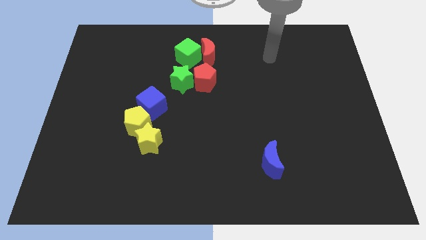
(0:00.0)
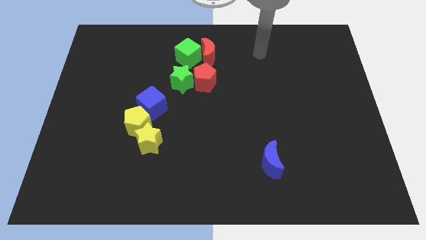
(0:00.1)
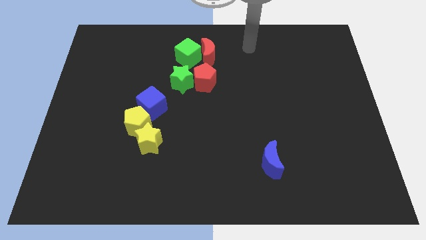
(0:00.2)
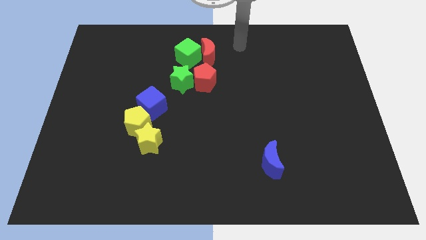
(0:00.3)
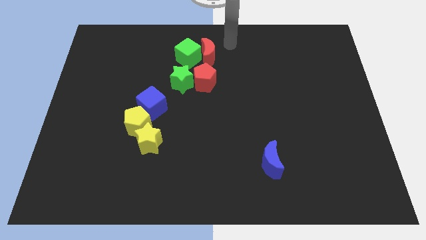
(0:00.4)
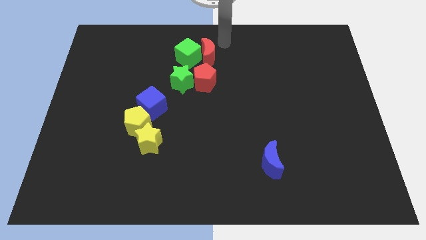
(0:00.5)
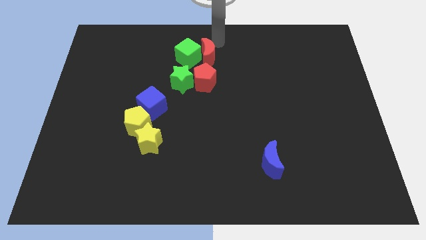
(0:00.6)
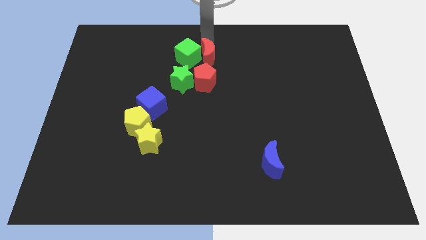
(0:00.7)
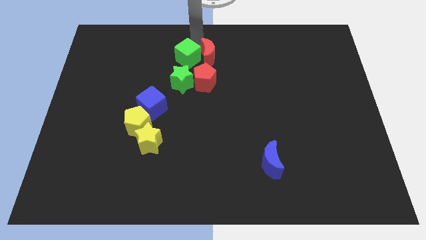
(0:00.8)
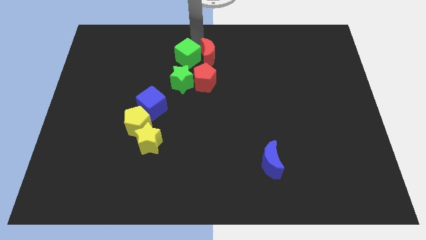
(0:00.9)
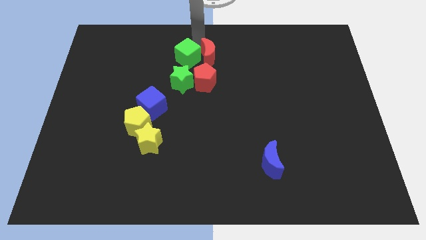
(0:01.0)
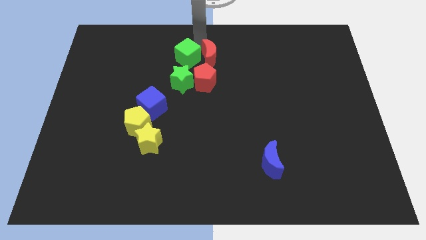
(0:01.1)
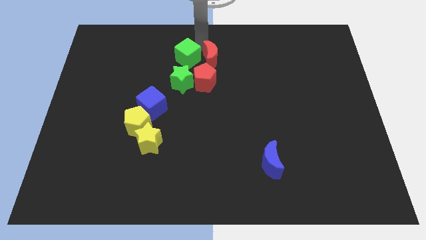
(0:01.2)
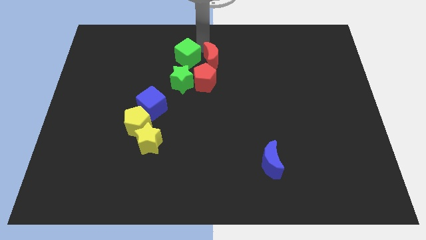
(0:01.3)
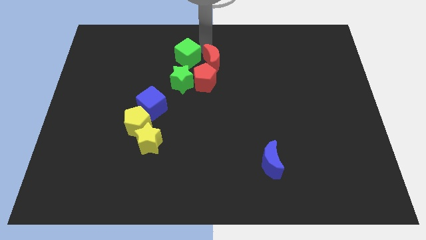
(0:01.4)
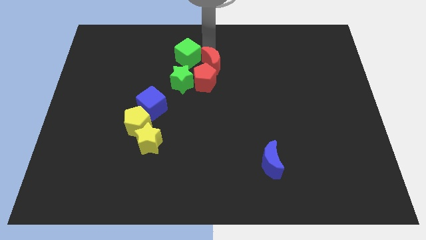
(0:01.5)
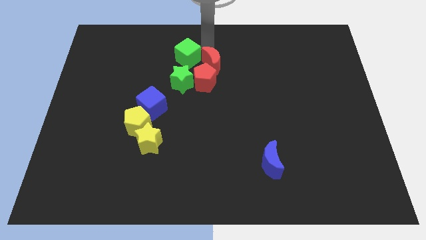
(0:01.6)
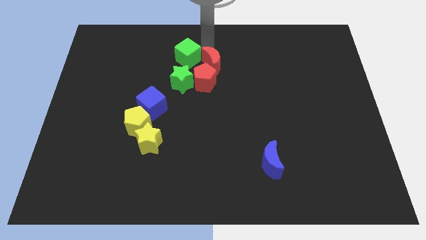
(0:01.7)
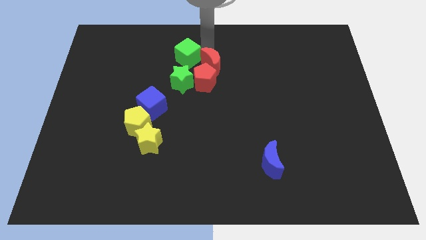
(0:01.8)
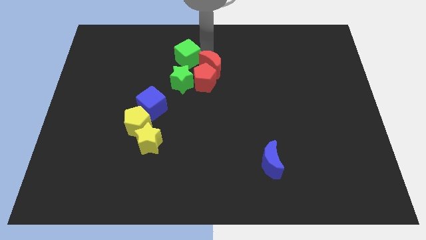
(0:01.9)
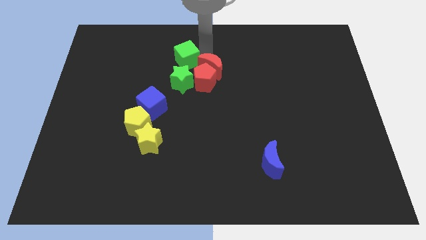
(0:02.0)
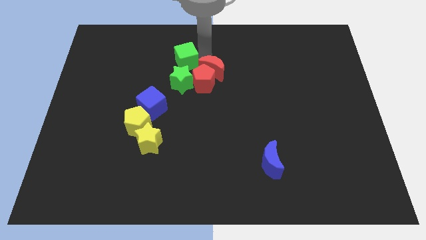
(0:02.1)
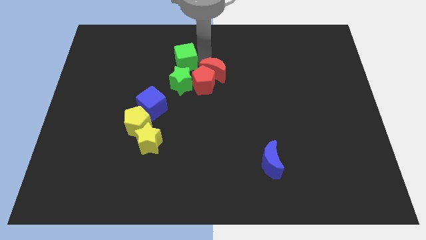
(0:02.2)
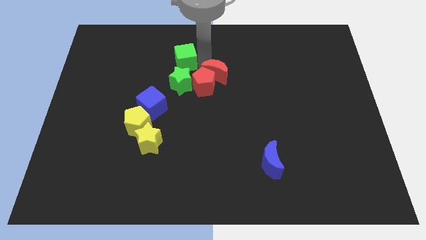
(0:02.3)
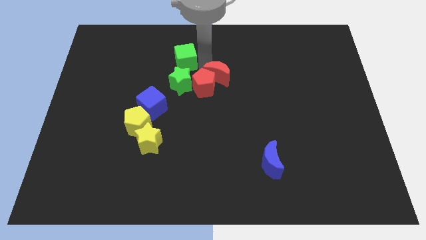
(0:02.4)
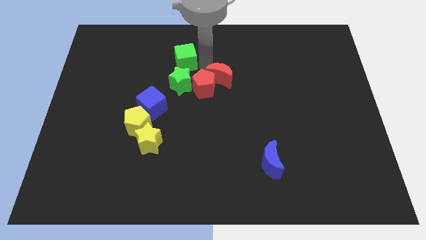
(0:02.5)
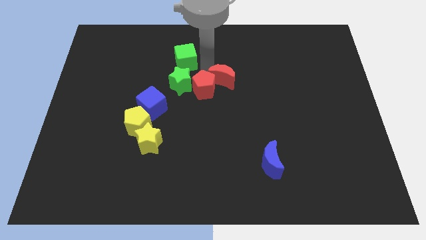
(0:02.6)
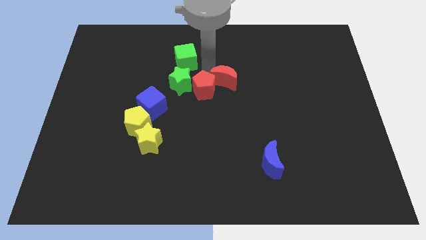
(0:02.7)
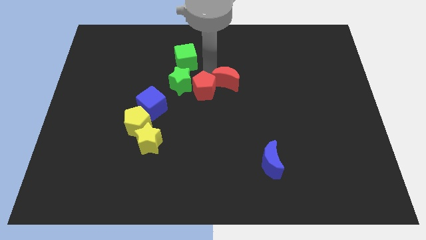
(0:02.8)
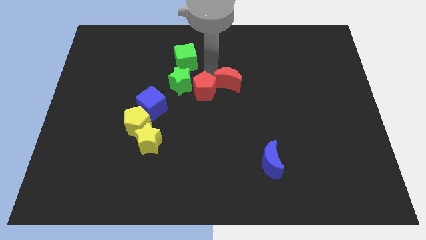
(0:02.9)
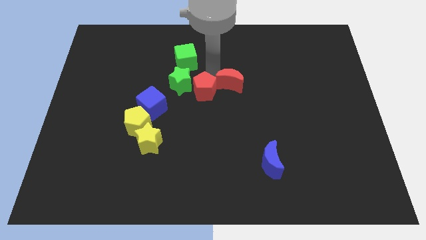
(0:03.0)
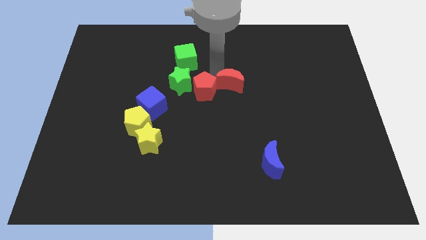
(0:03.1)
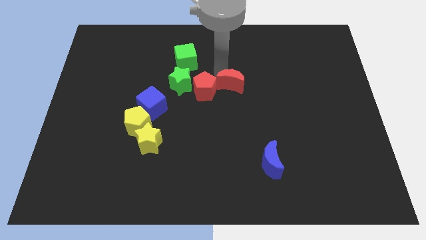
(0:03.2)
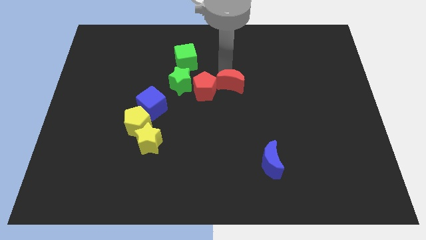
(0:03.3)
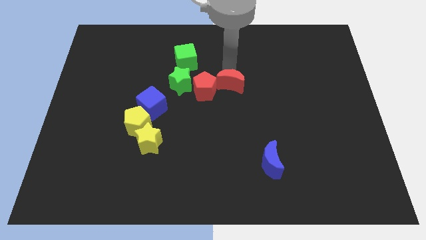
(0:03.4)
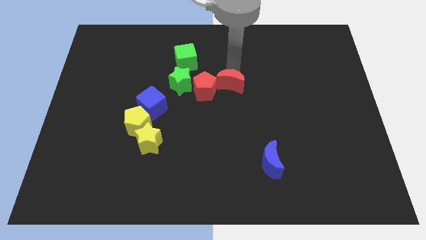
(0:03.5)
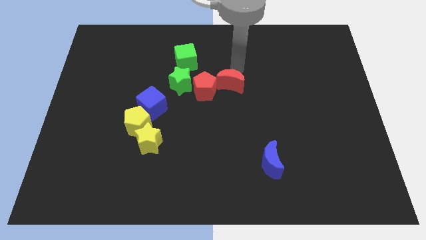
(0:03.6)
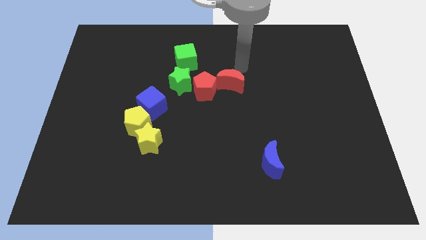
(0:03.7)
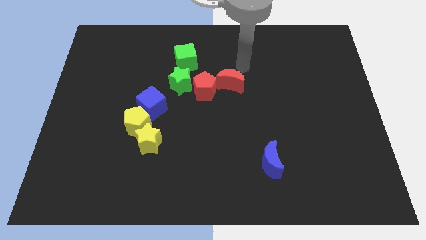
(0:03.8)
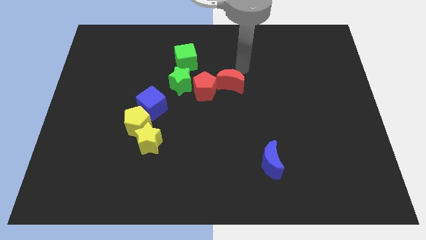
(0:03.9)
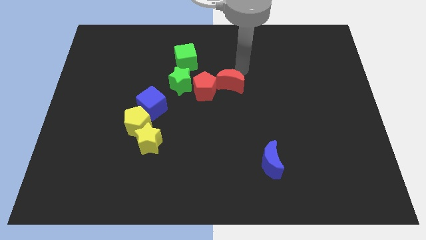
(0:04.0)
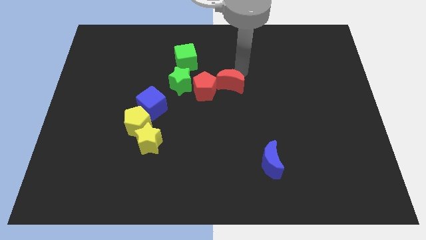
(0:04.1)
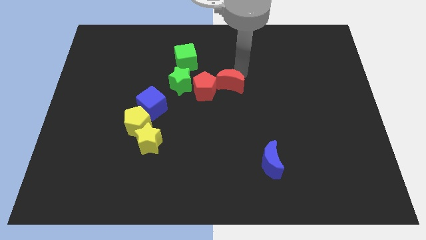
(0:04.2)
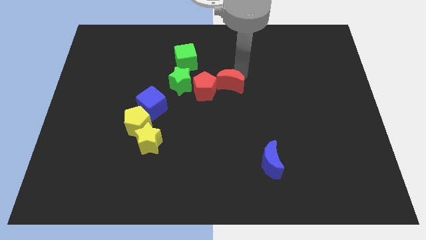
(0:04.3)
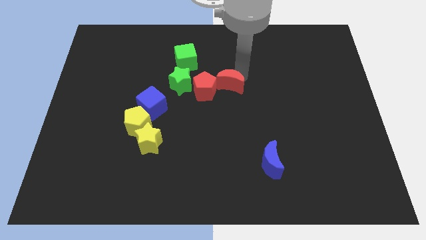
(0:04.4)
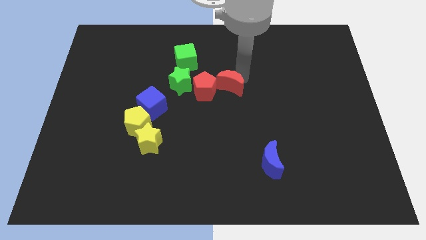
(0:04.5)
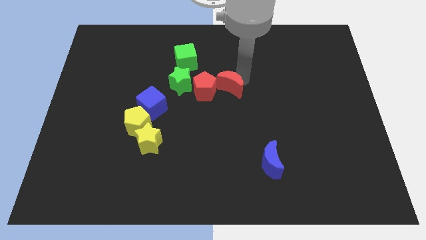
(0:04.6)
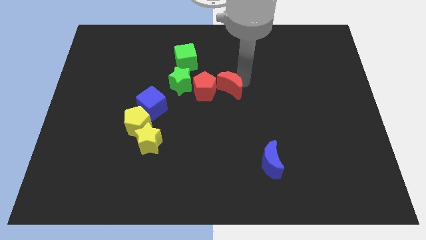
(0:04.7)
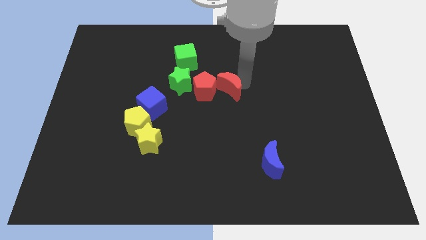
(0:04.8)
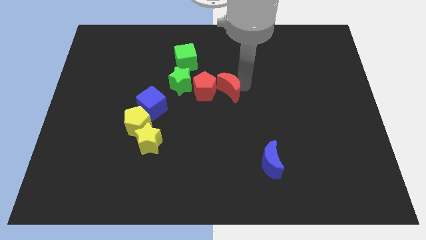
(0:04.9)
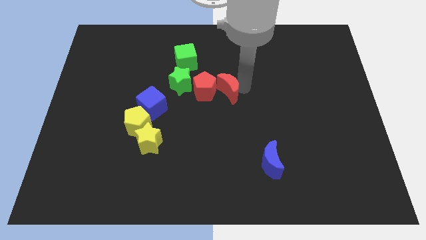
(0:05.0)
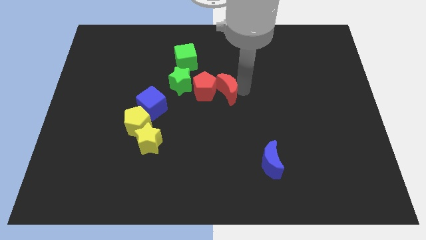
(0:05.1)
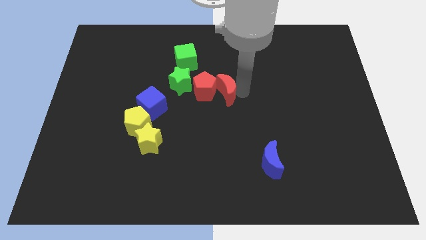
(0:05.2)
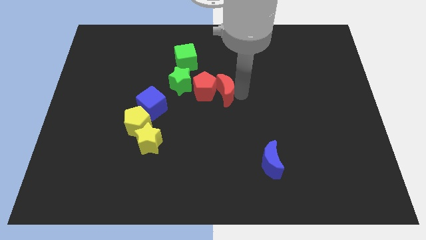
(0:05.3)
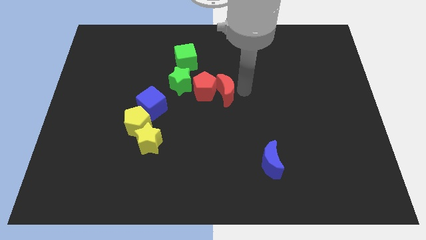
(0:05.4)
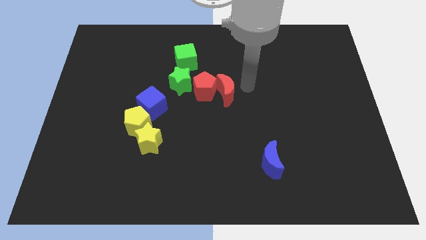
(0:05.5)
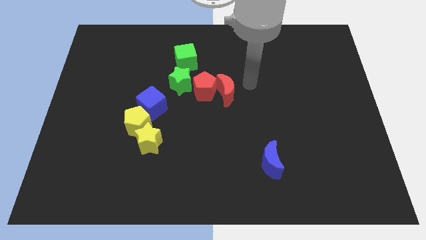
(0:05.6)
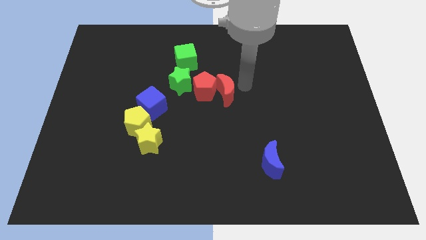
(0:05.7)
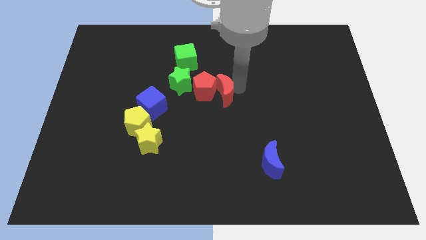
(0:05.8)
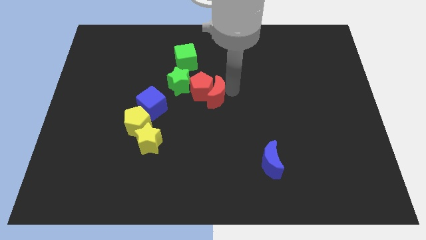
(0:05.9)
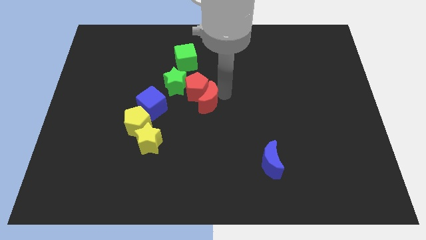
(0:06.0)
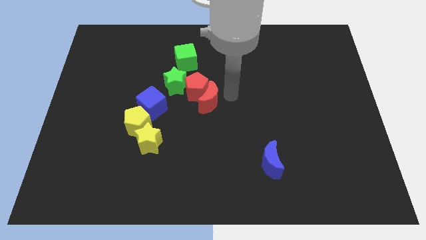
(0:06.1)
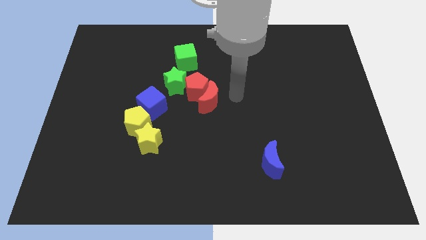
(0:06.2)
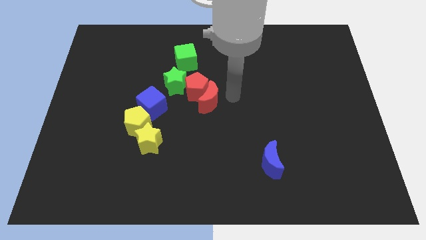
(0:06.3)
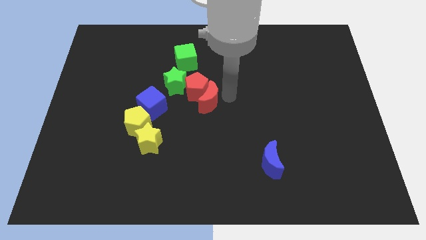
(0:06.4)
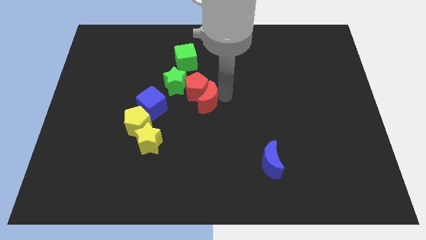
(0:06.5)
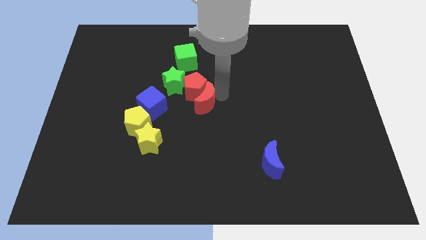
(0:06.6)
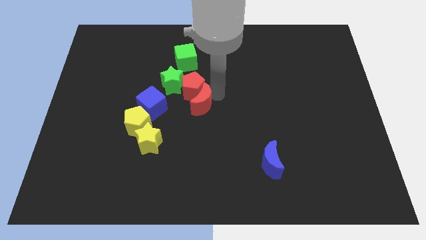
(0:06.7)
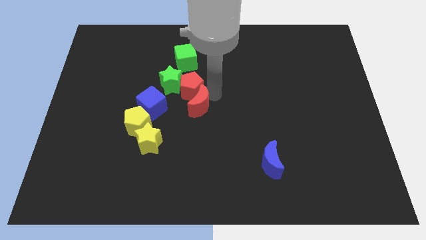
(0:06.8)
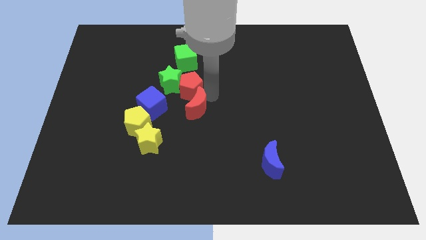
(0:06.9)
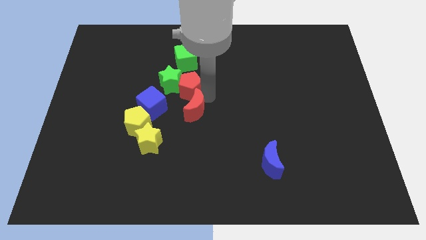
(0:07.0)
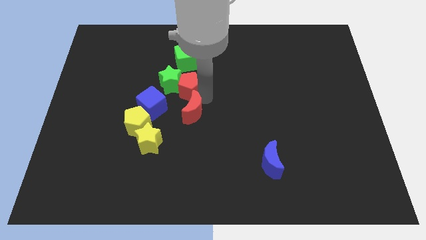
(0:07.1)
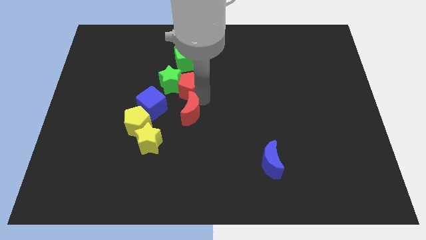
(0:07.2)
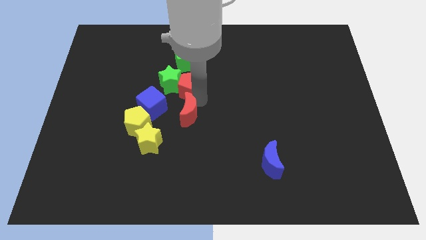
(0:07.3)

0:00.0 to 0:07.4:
move the red moon to the bottom left side of the red pentagon
